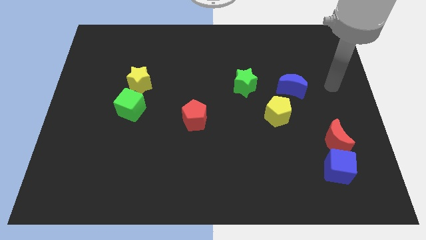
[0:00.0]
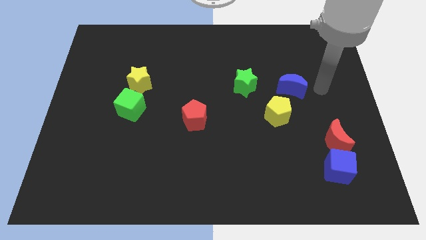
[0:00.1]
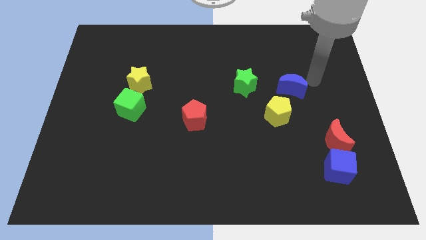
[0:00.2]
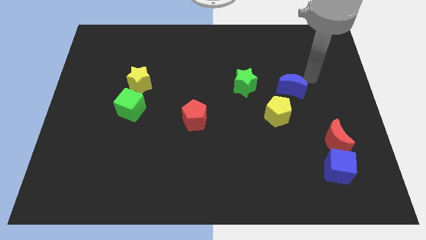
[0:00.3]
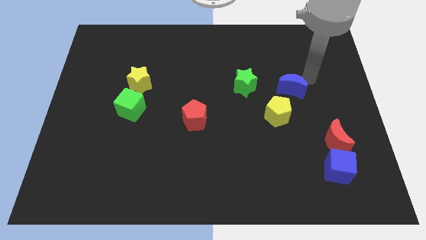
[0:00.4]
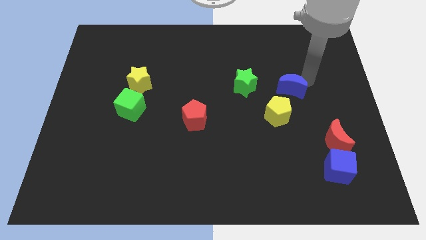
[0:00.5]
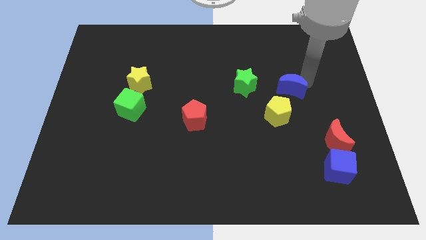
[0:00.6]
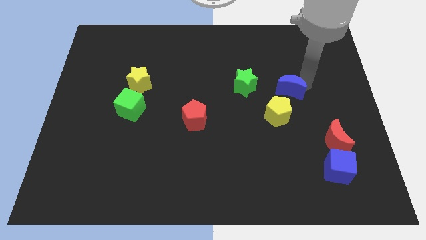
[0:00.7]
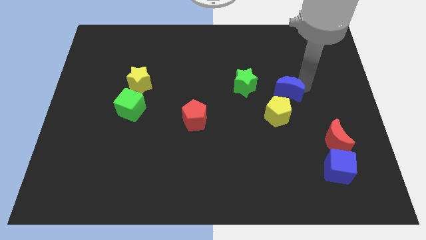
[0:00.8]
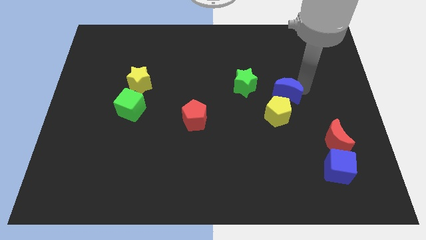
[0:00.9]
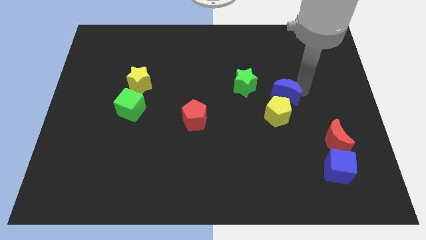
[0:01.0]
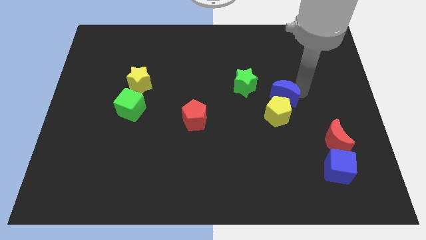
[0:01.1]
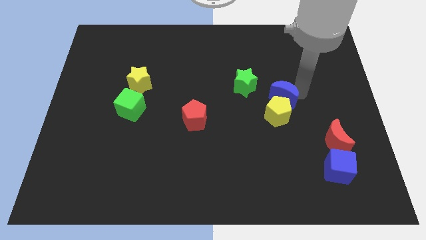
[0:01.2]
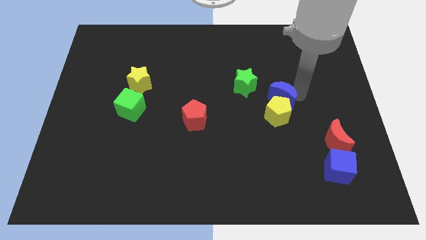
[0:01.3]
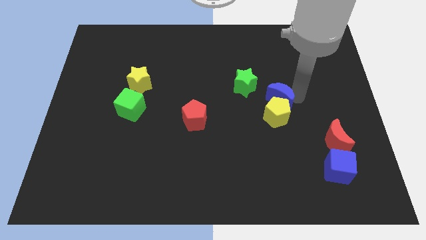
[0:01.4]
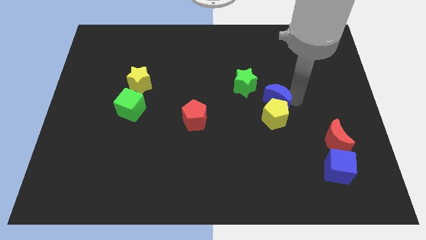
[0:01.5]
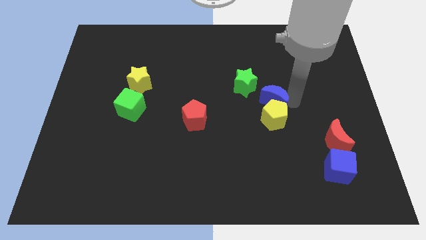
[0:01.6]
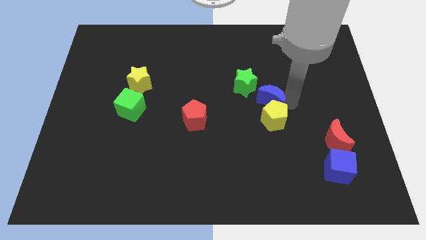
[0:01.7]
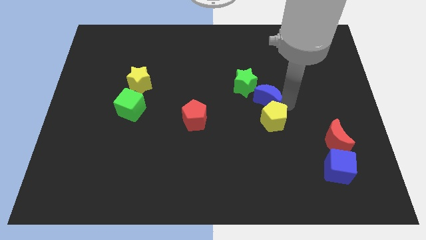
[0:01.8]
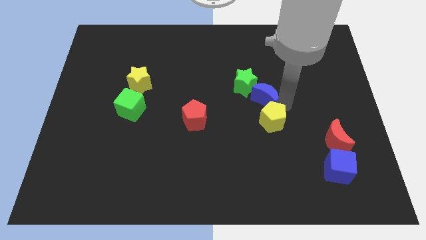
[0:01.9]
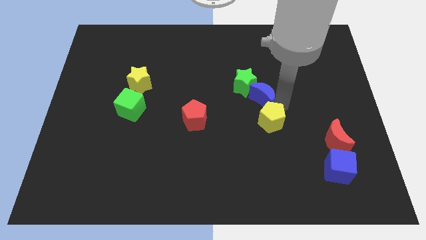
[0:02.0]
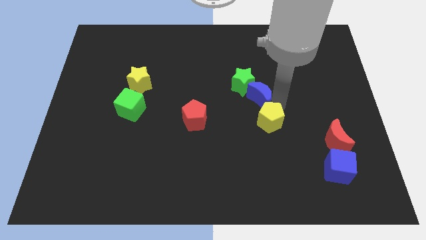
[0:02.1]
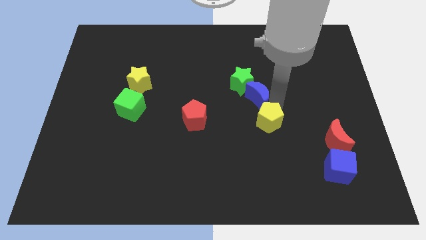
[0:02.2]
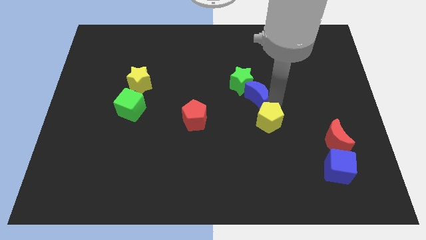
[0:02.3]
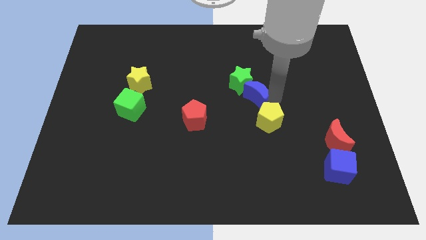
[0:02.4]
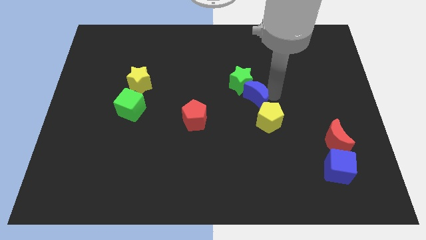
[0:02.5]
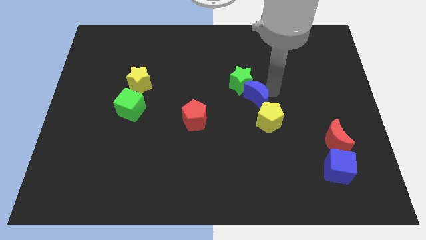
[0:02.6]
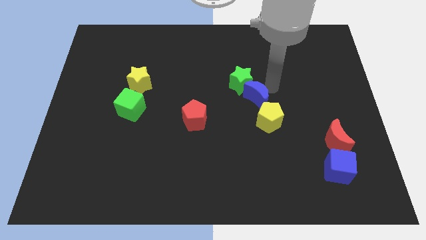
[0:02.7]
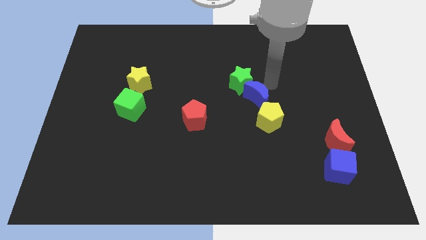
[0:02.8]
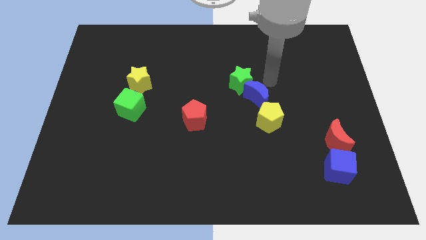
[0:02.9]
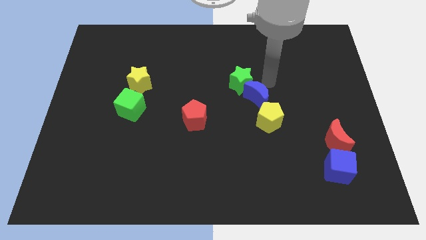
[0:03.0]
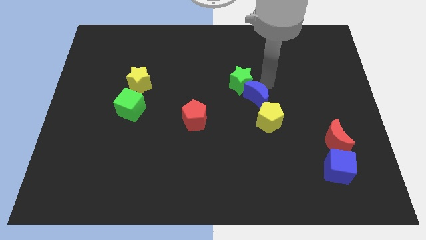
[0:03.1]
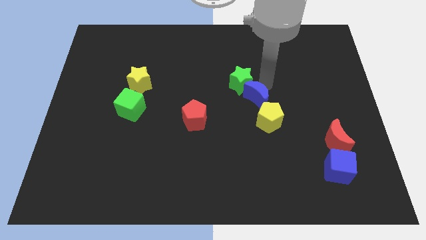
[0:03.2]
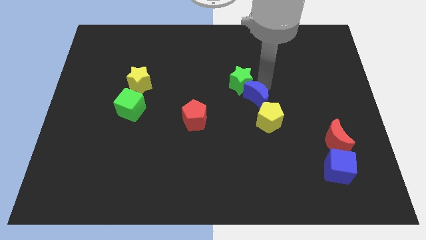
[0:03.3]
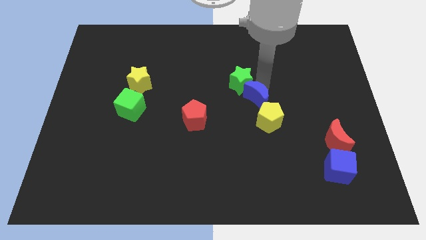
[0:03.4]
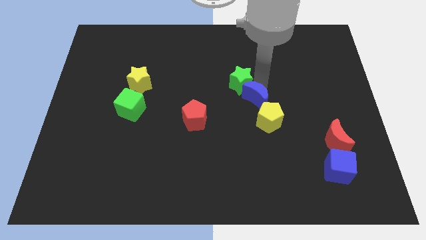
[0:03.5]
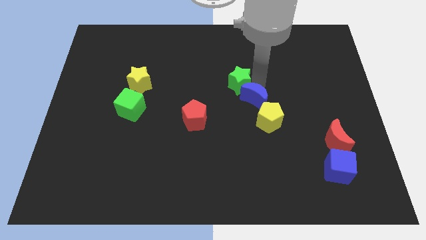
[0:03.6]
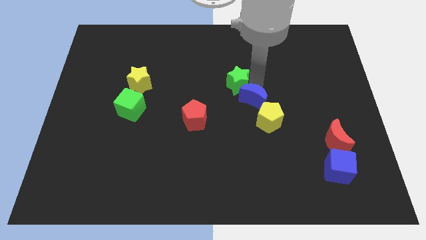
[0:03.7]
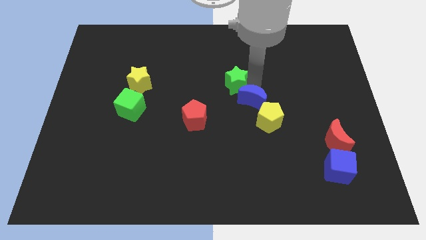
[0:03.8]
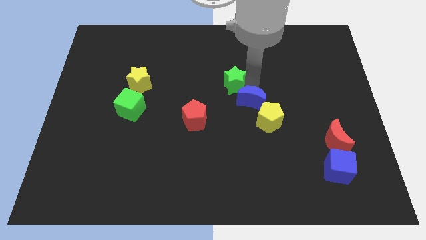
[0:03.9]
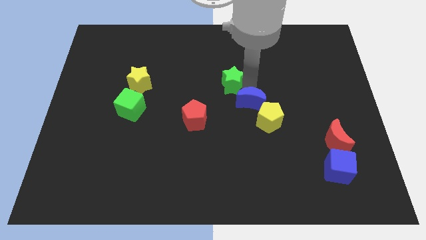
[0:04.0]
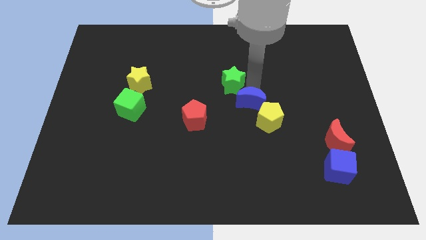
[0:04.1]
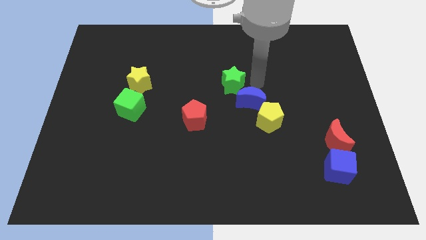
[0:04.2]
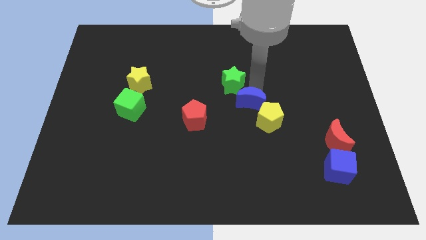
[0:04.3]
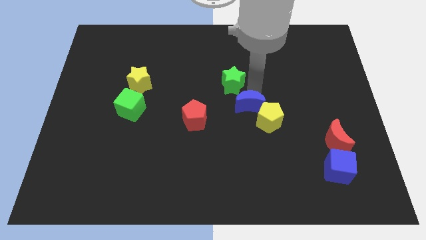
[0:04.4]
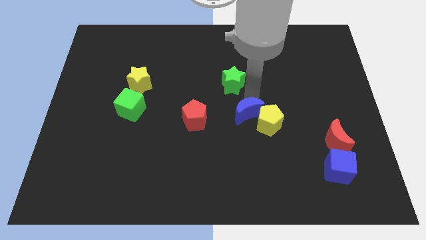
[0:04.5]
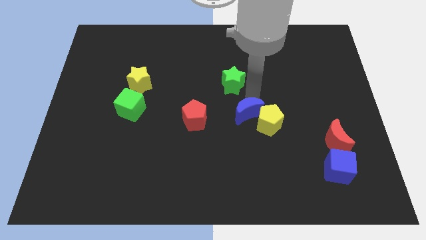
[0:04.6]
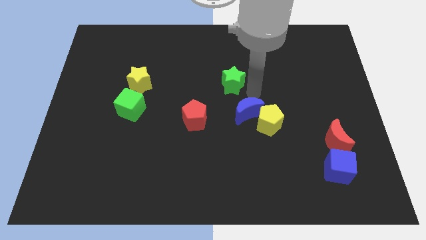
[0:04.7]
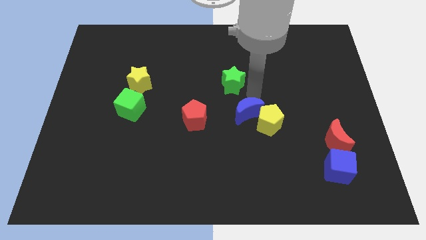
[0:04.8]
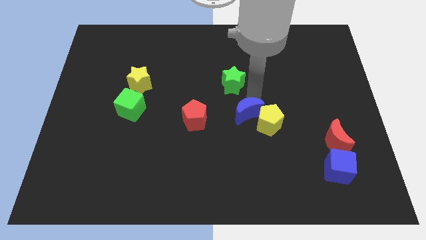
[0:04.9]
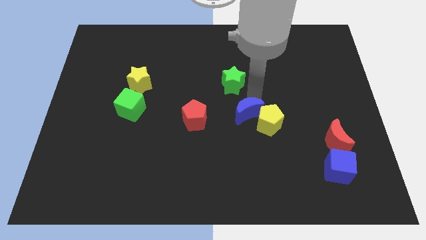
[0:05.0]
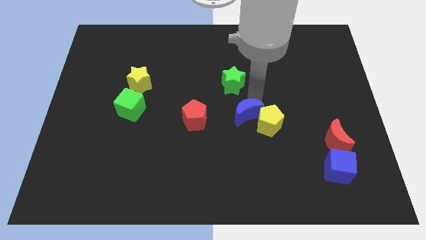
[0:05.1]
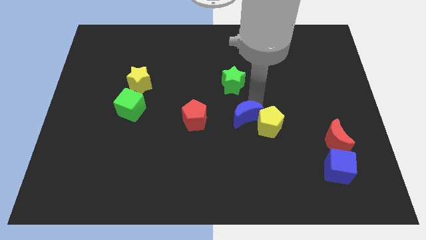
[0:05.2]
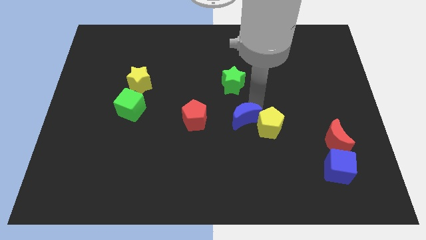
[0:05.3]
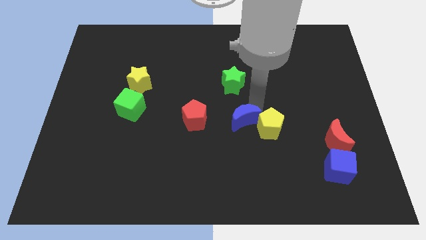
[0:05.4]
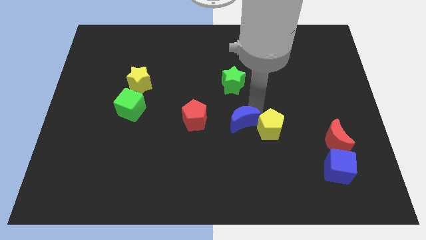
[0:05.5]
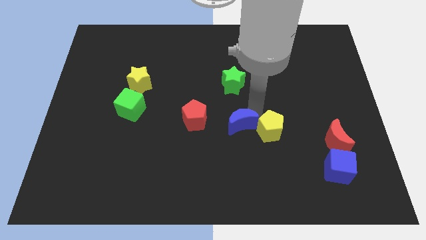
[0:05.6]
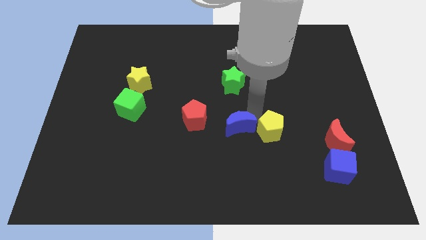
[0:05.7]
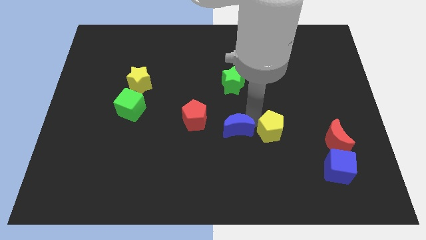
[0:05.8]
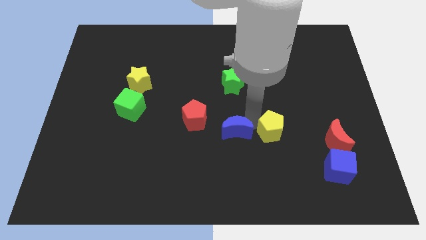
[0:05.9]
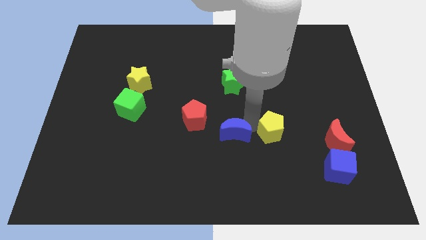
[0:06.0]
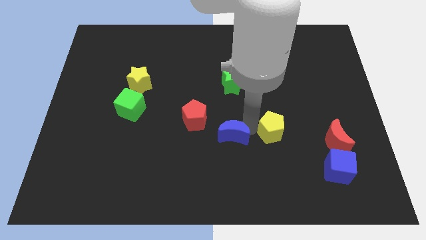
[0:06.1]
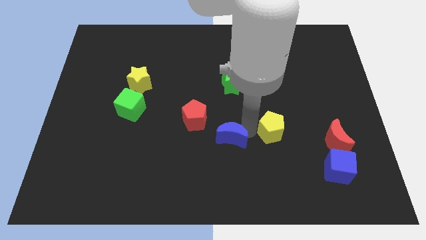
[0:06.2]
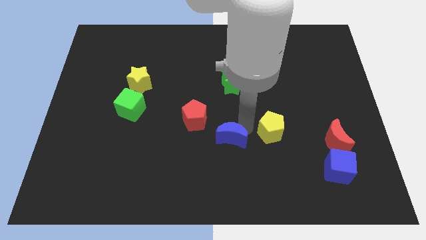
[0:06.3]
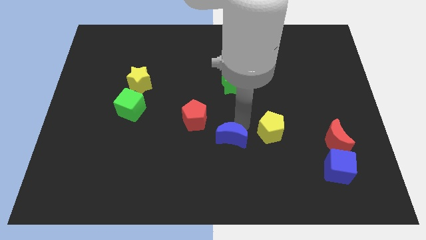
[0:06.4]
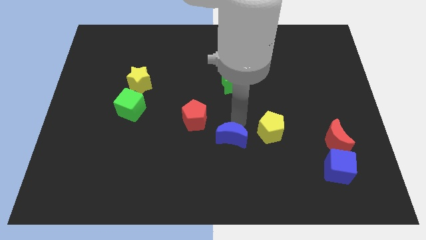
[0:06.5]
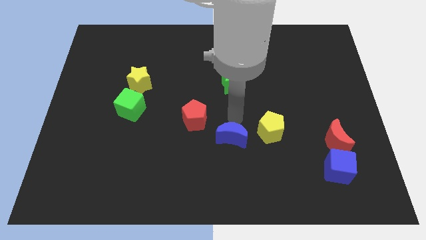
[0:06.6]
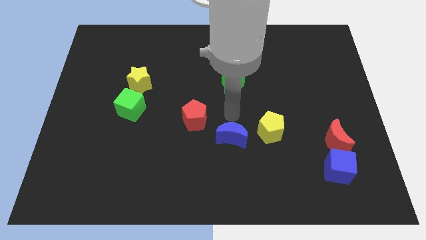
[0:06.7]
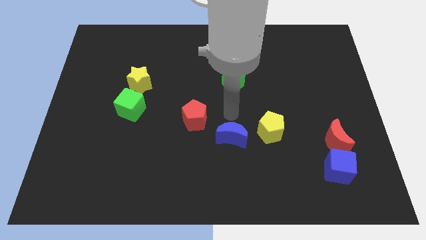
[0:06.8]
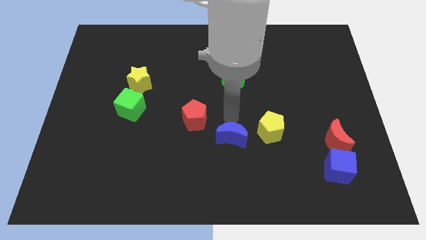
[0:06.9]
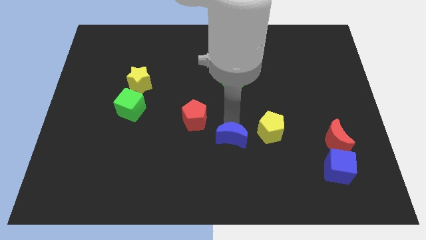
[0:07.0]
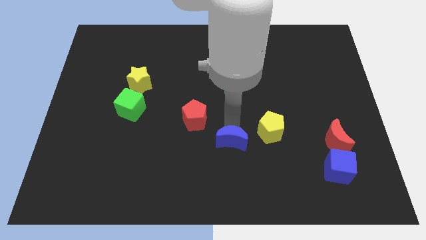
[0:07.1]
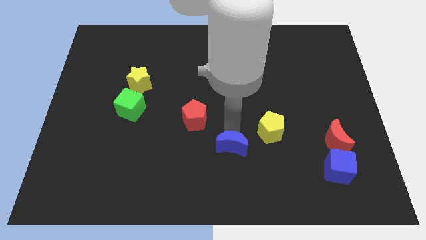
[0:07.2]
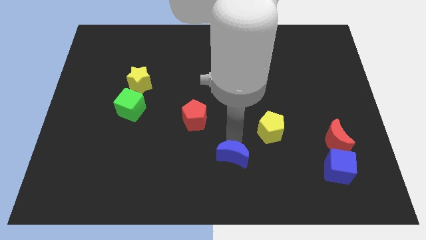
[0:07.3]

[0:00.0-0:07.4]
put the blue moon to the bottom side
